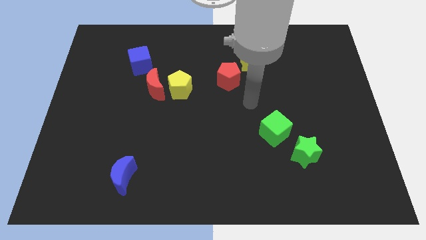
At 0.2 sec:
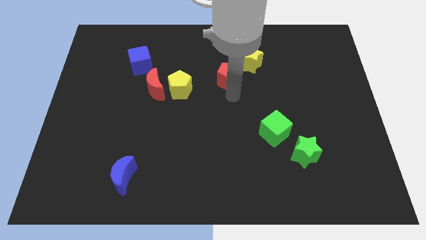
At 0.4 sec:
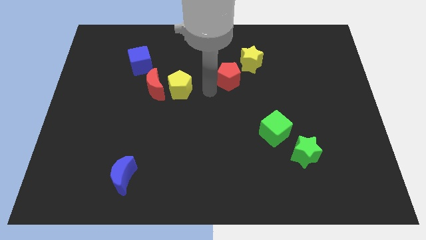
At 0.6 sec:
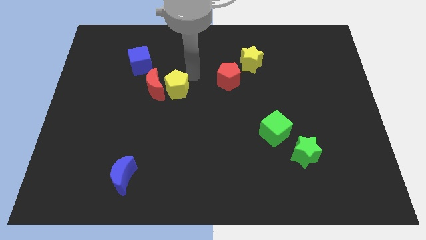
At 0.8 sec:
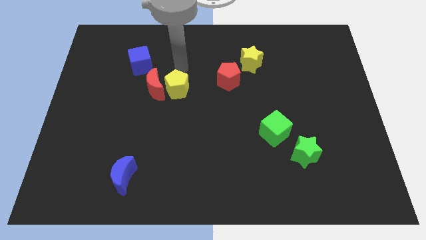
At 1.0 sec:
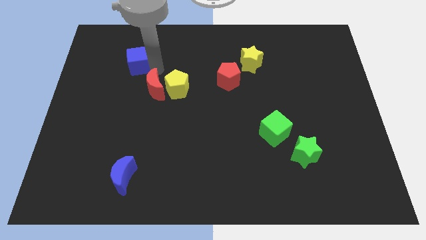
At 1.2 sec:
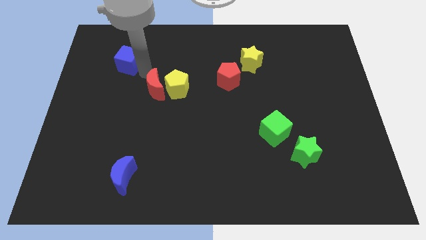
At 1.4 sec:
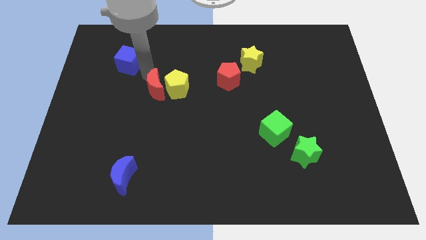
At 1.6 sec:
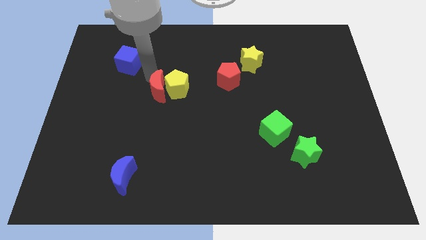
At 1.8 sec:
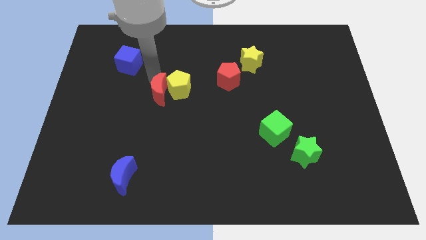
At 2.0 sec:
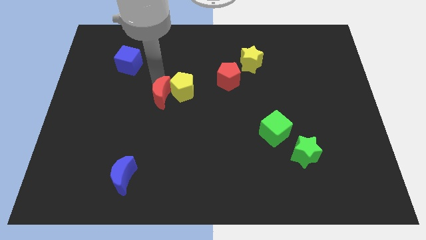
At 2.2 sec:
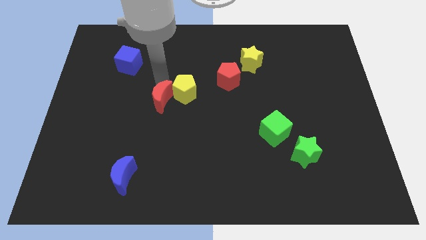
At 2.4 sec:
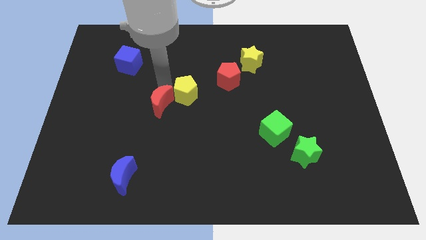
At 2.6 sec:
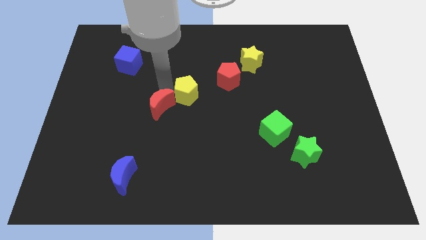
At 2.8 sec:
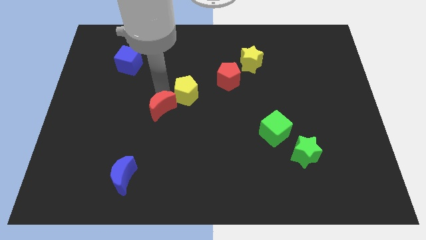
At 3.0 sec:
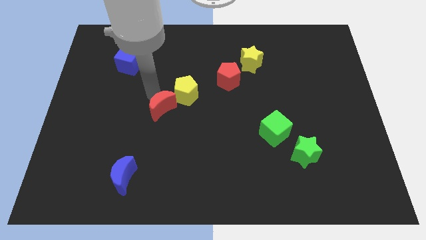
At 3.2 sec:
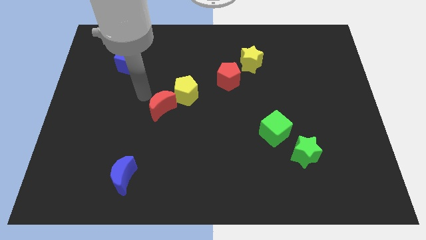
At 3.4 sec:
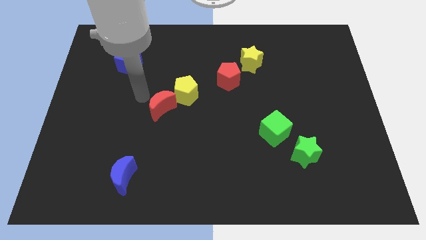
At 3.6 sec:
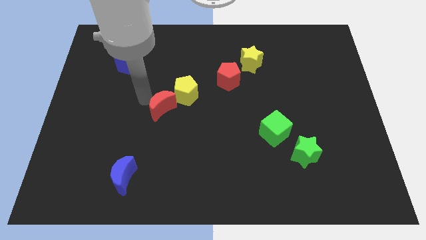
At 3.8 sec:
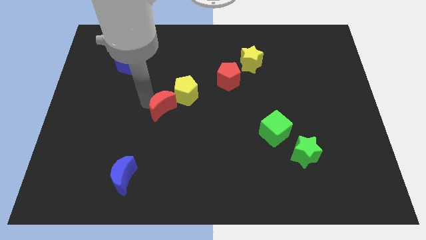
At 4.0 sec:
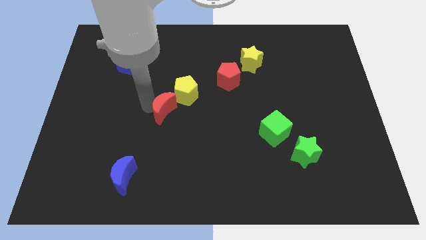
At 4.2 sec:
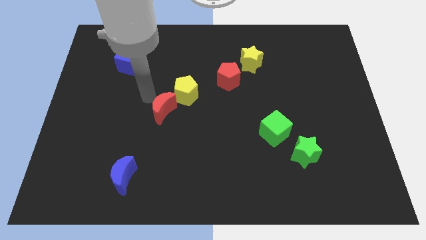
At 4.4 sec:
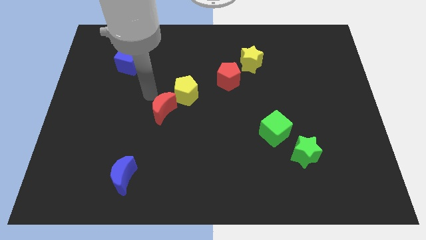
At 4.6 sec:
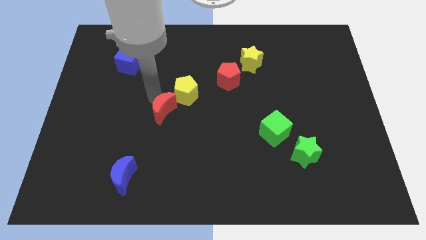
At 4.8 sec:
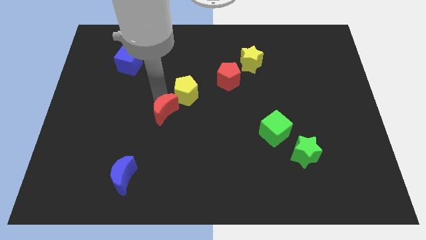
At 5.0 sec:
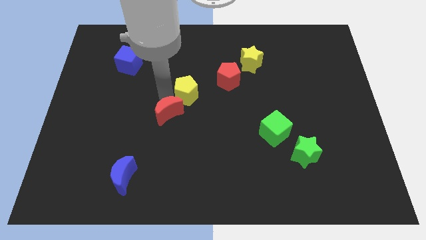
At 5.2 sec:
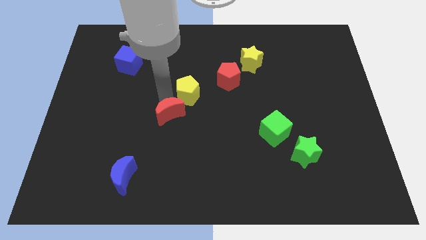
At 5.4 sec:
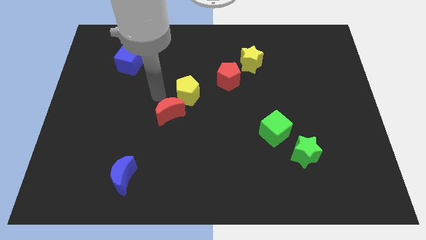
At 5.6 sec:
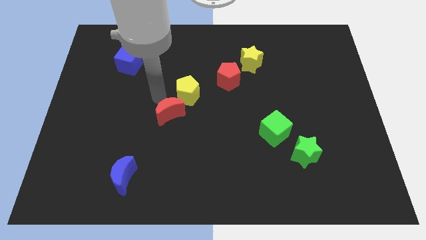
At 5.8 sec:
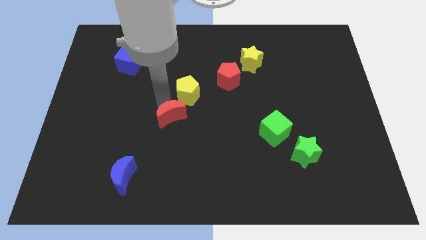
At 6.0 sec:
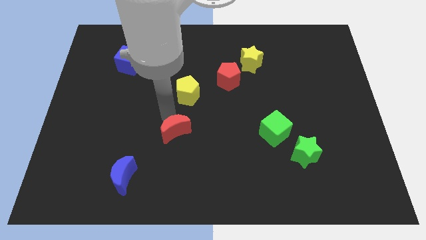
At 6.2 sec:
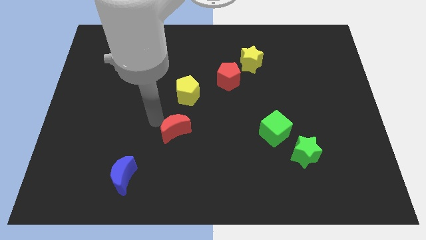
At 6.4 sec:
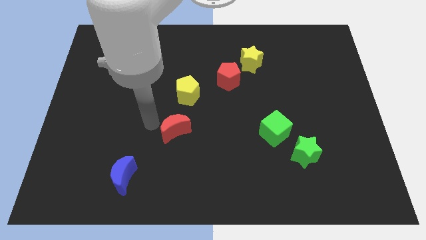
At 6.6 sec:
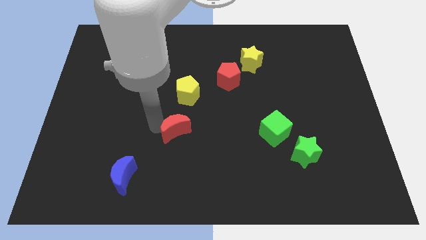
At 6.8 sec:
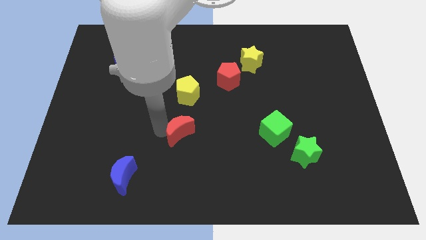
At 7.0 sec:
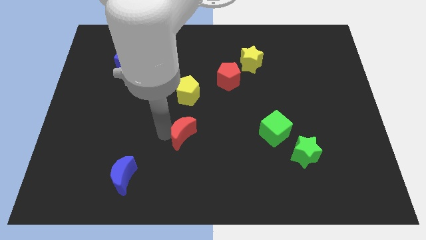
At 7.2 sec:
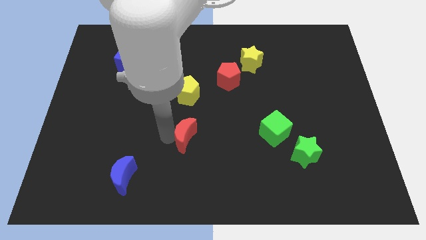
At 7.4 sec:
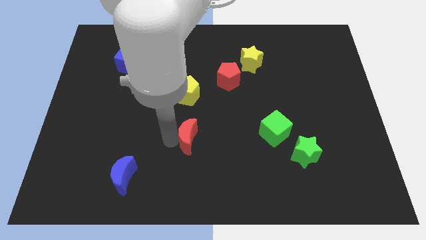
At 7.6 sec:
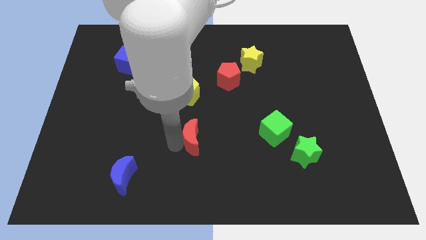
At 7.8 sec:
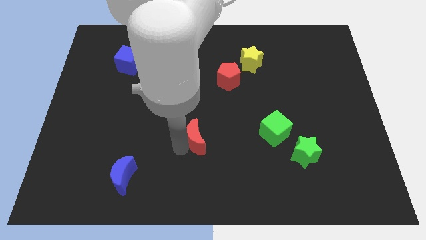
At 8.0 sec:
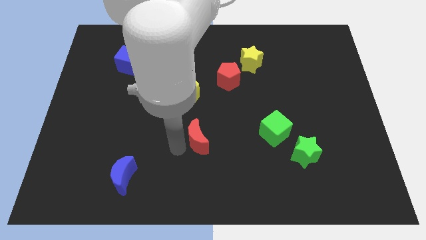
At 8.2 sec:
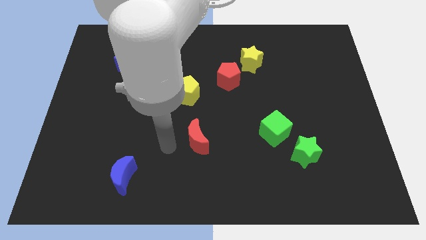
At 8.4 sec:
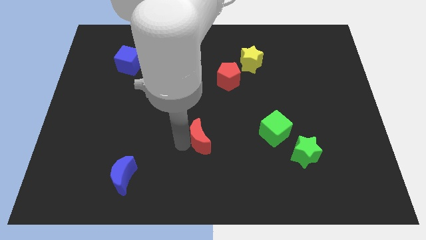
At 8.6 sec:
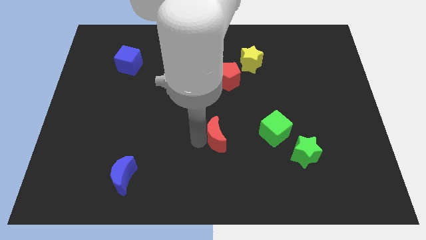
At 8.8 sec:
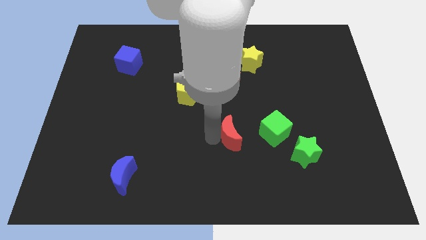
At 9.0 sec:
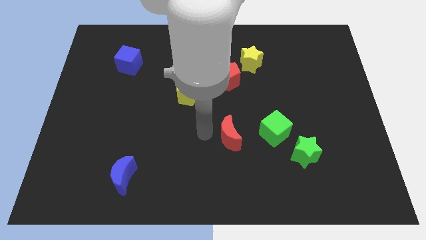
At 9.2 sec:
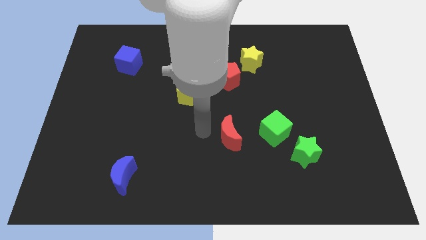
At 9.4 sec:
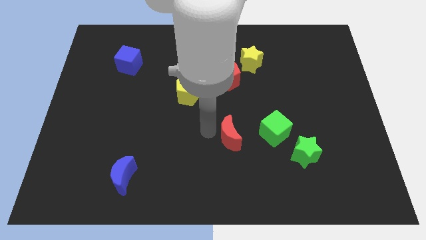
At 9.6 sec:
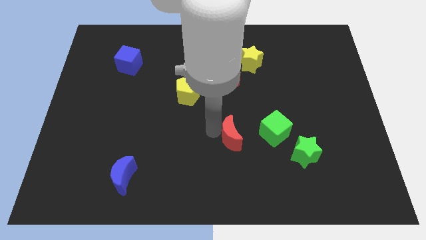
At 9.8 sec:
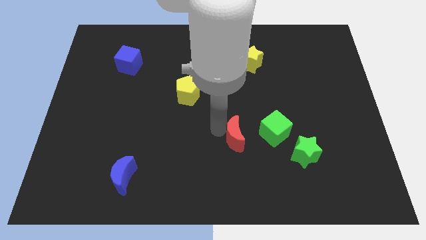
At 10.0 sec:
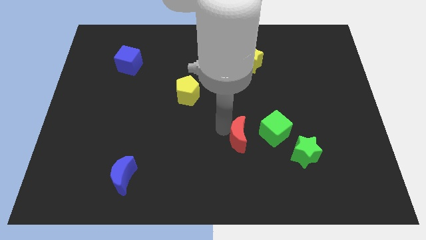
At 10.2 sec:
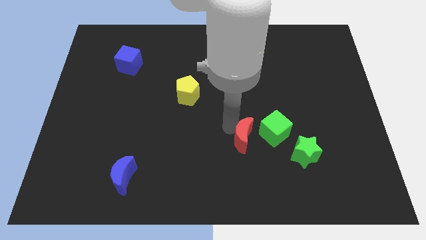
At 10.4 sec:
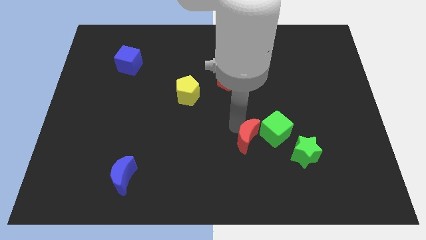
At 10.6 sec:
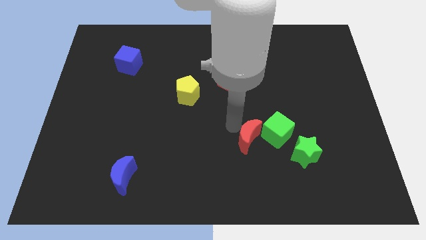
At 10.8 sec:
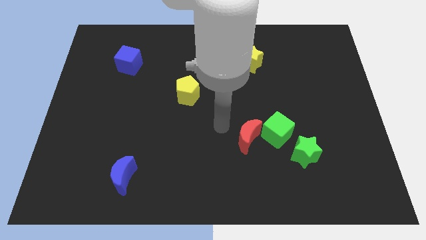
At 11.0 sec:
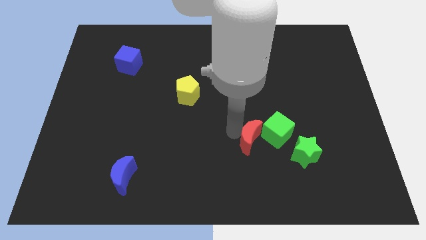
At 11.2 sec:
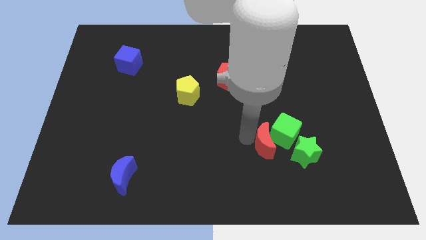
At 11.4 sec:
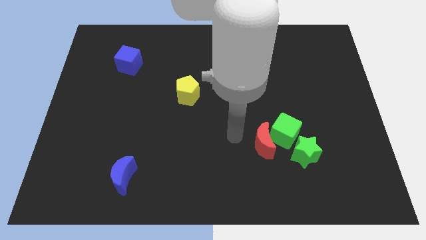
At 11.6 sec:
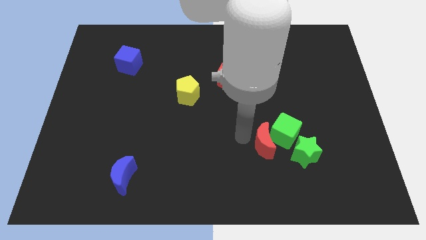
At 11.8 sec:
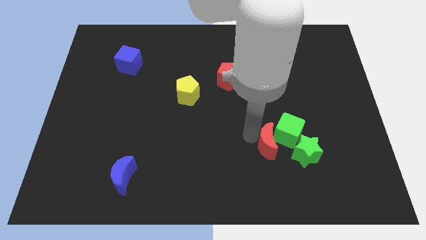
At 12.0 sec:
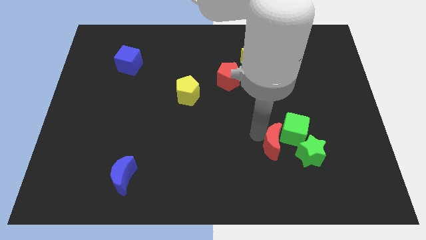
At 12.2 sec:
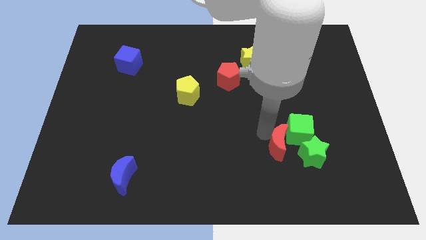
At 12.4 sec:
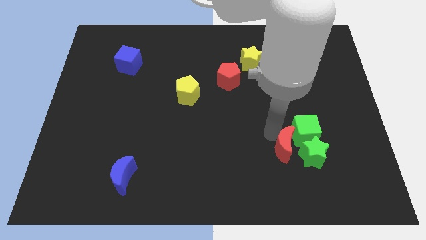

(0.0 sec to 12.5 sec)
push the red moon to the green star

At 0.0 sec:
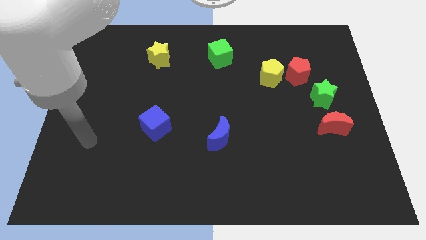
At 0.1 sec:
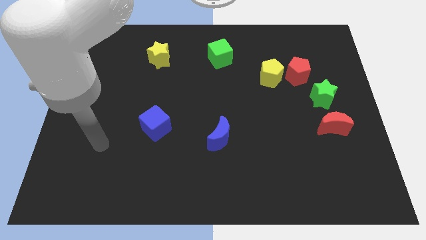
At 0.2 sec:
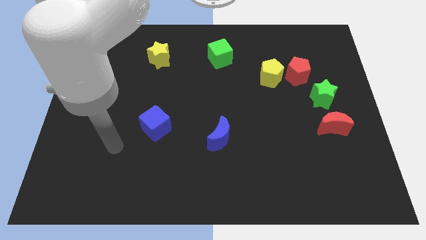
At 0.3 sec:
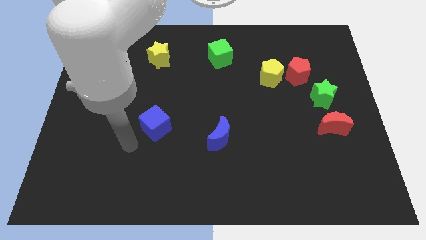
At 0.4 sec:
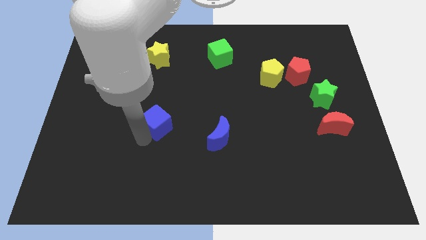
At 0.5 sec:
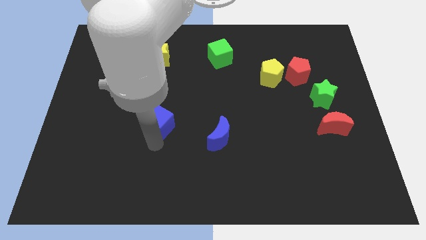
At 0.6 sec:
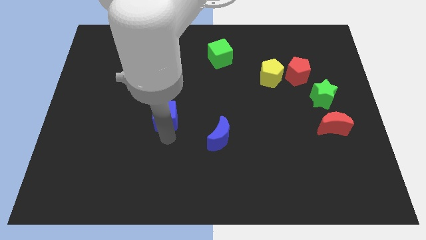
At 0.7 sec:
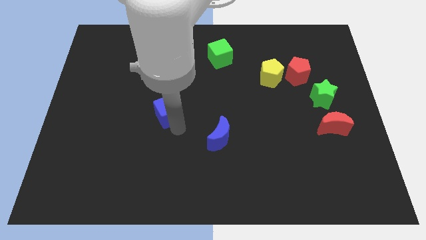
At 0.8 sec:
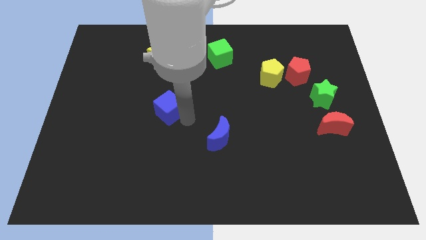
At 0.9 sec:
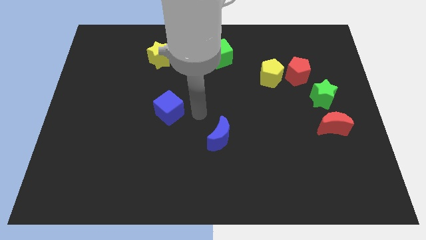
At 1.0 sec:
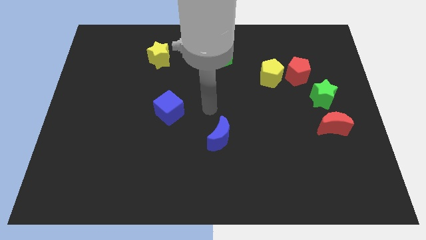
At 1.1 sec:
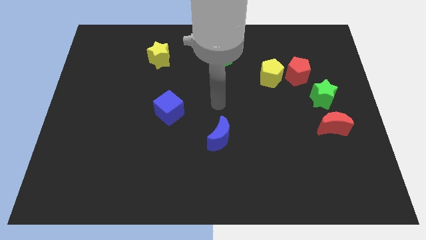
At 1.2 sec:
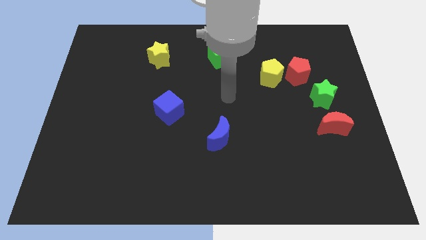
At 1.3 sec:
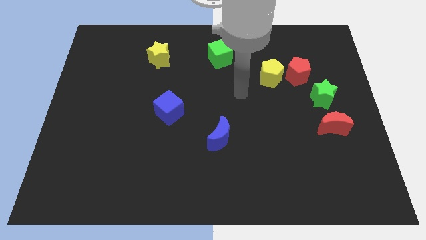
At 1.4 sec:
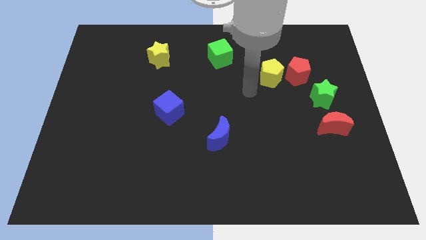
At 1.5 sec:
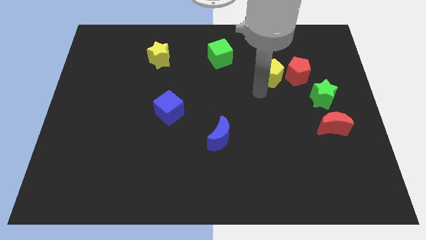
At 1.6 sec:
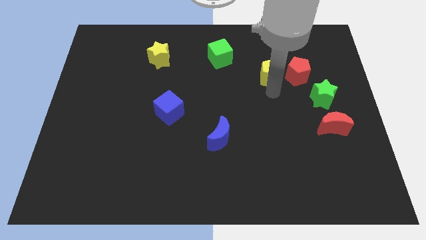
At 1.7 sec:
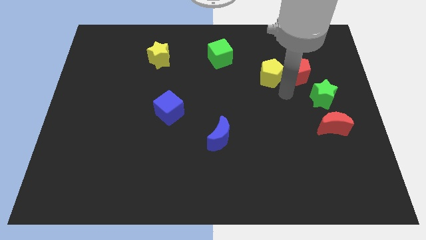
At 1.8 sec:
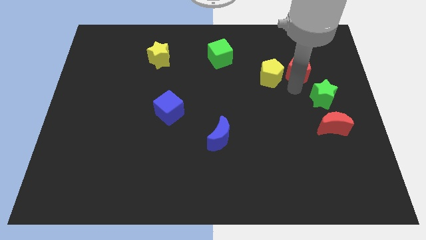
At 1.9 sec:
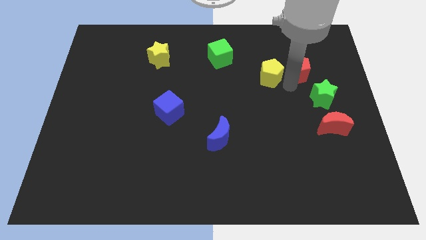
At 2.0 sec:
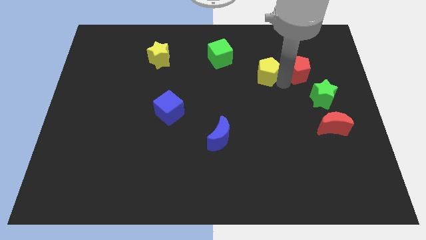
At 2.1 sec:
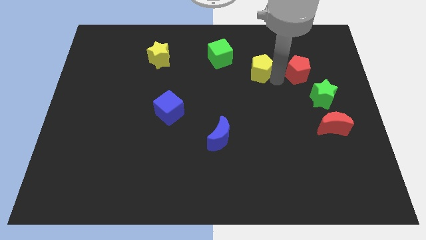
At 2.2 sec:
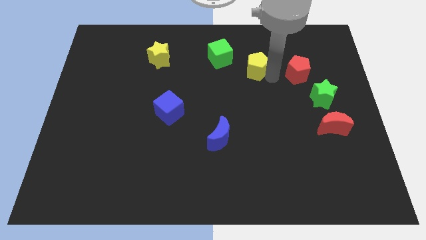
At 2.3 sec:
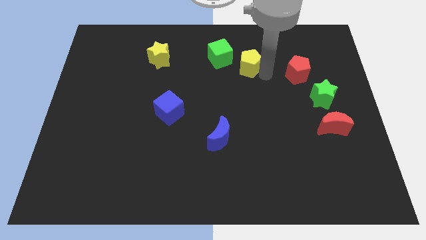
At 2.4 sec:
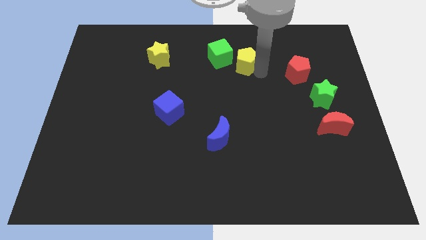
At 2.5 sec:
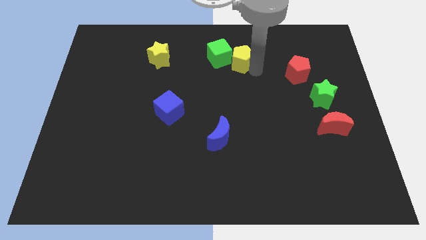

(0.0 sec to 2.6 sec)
slide the yellow pentagon towards the green cube
